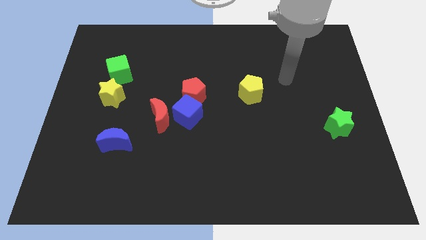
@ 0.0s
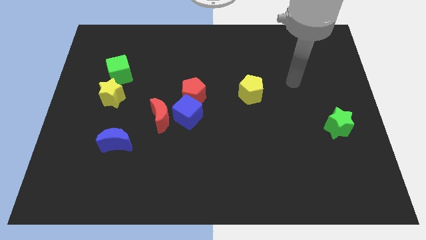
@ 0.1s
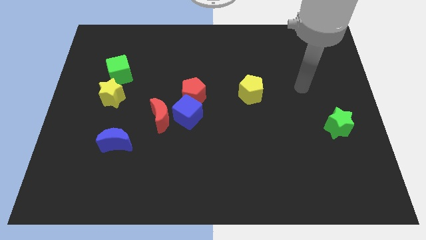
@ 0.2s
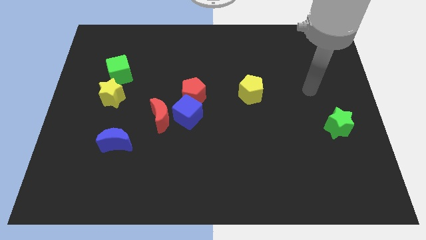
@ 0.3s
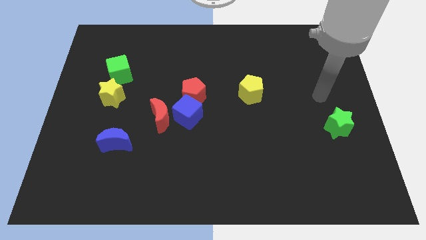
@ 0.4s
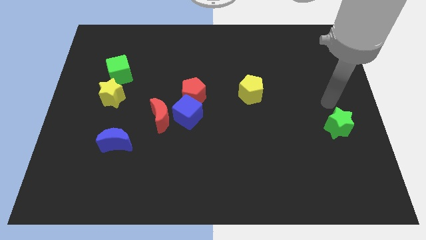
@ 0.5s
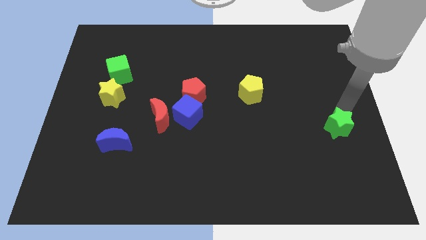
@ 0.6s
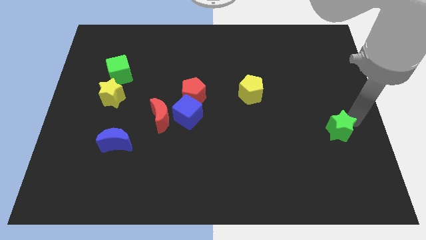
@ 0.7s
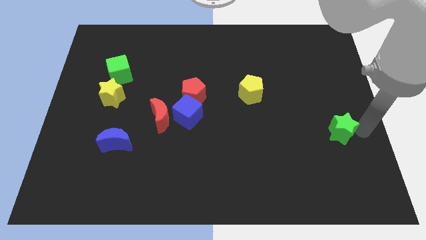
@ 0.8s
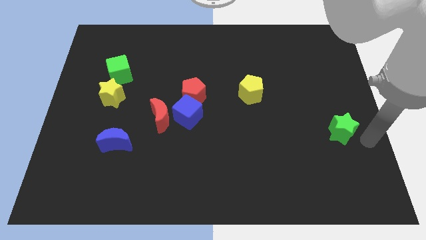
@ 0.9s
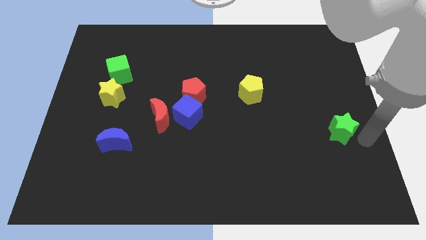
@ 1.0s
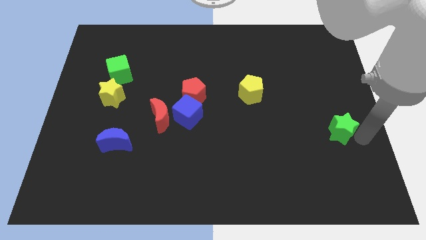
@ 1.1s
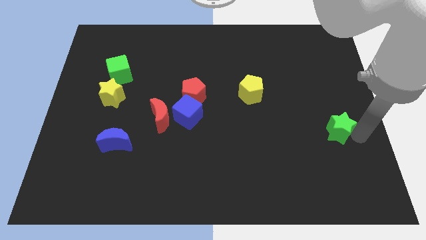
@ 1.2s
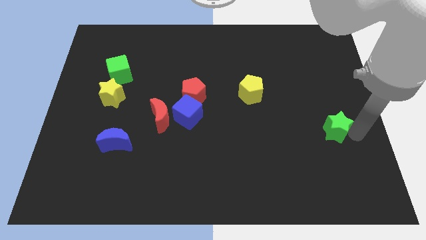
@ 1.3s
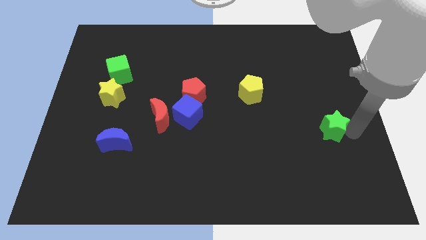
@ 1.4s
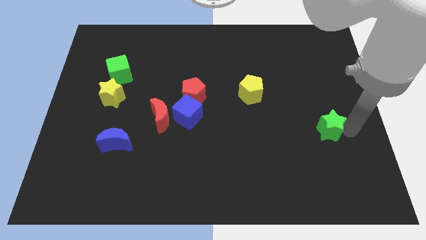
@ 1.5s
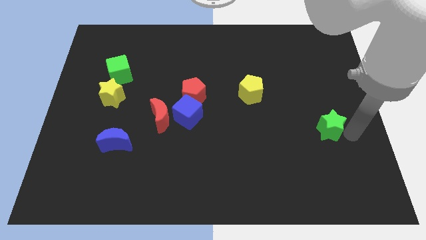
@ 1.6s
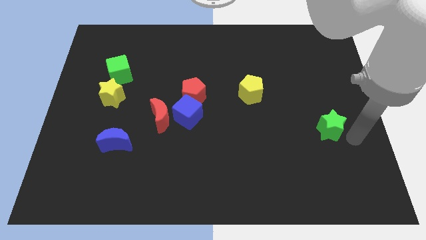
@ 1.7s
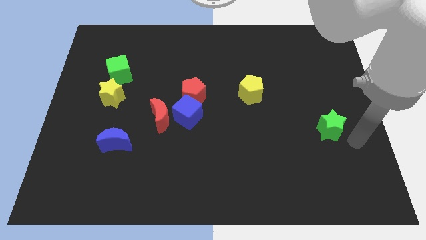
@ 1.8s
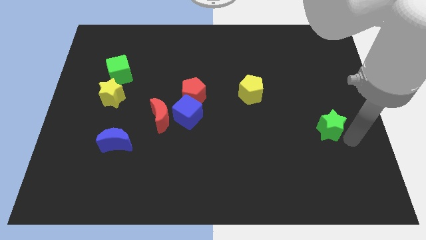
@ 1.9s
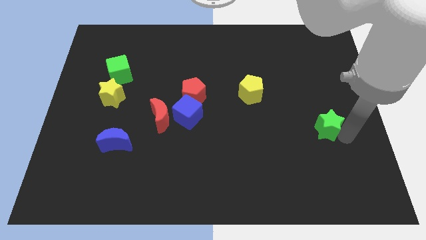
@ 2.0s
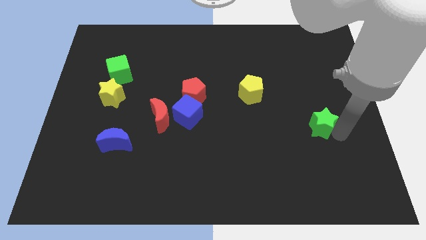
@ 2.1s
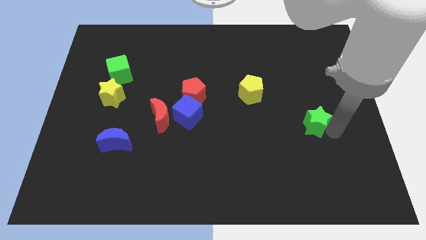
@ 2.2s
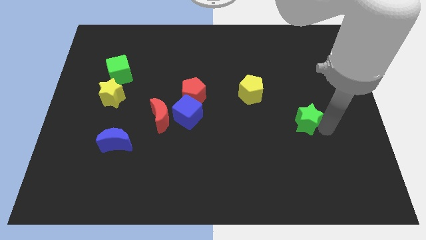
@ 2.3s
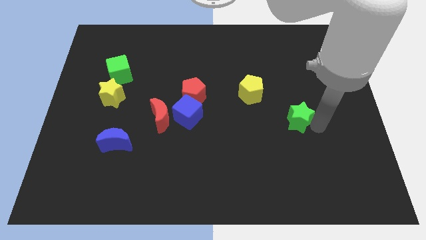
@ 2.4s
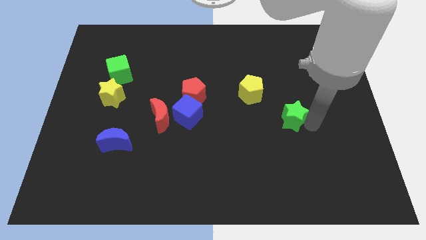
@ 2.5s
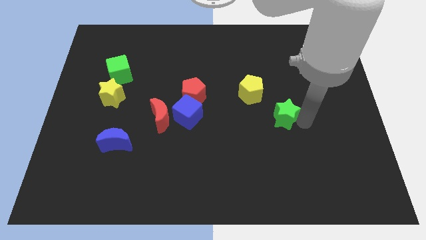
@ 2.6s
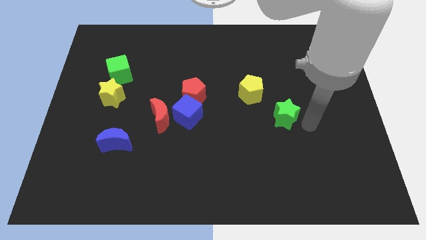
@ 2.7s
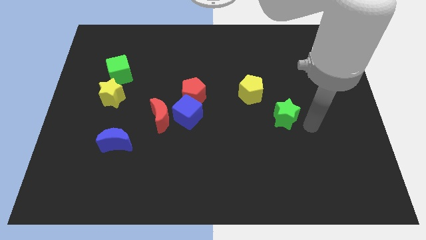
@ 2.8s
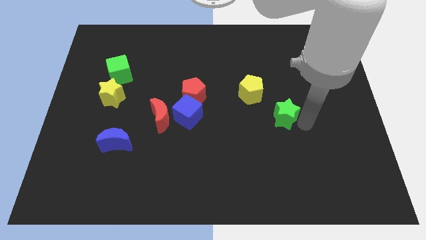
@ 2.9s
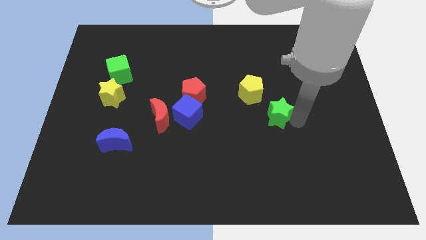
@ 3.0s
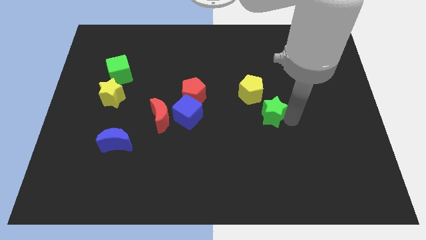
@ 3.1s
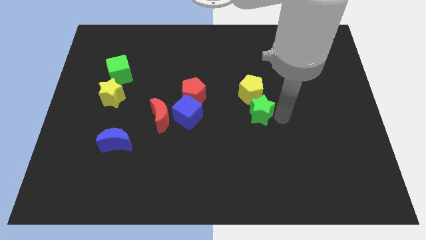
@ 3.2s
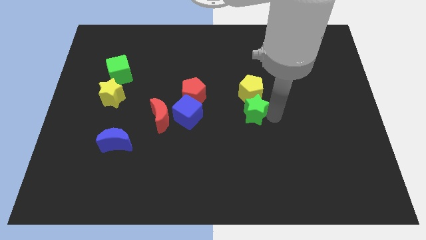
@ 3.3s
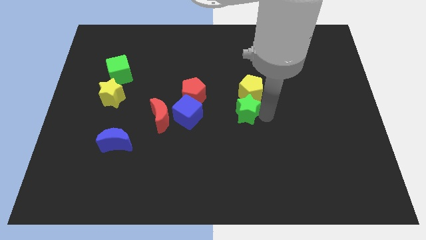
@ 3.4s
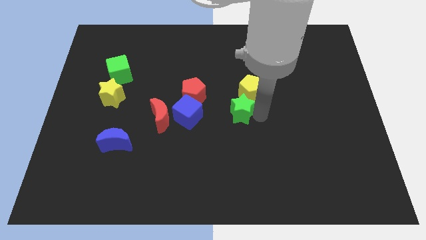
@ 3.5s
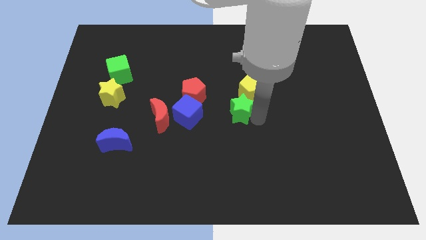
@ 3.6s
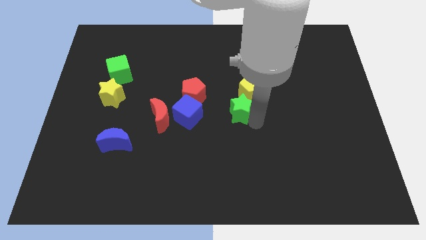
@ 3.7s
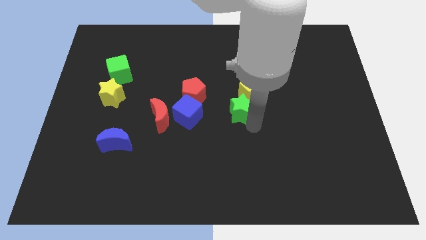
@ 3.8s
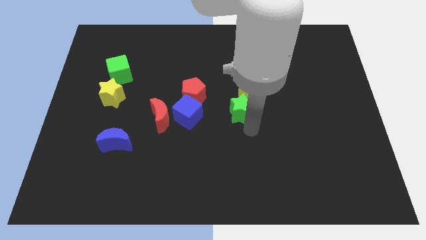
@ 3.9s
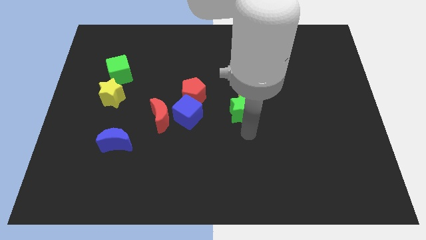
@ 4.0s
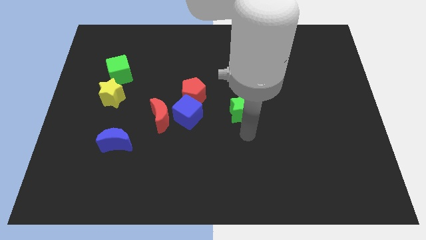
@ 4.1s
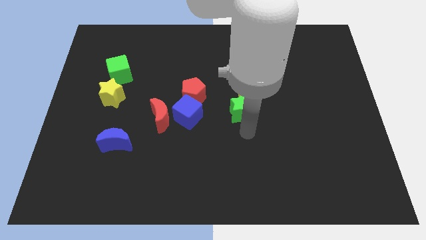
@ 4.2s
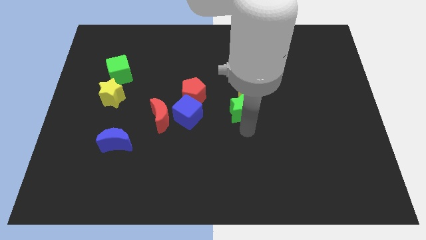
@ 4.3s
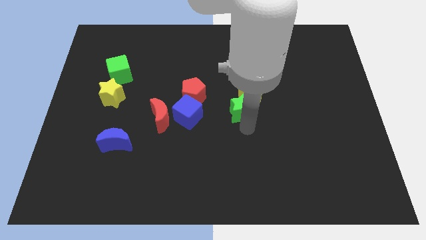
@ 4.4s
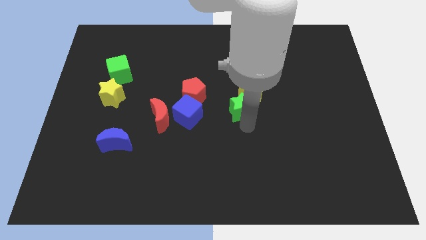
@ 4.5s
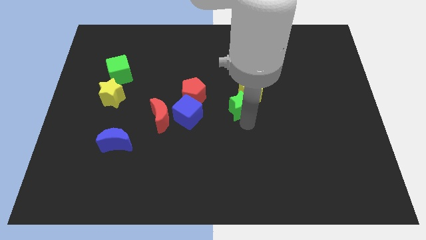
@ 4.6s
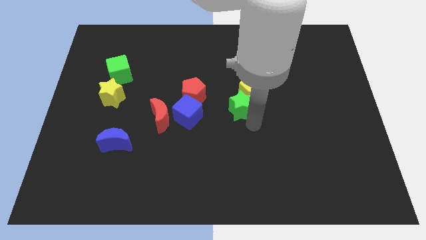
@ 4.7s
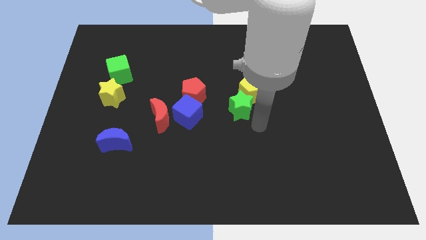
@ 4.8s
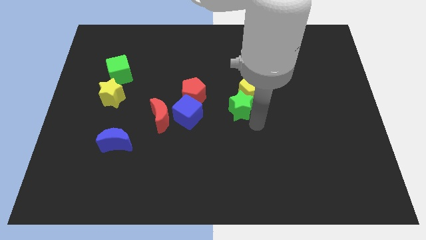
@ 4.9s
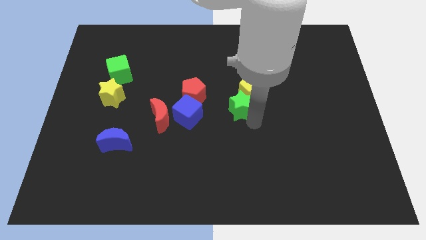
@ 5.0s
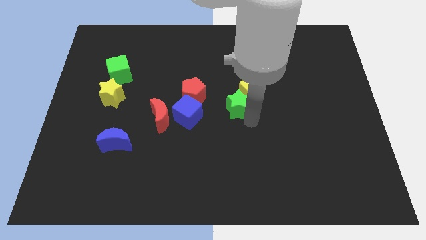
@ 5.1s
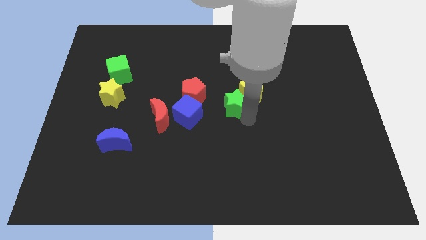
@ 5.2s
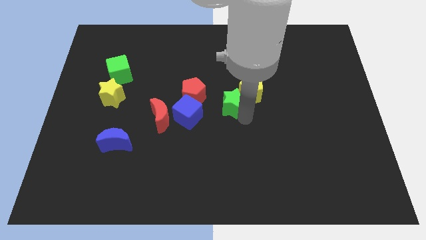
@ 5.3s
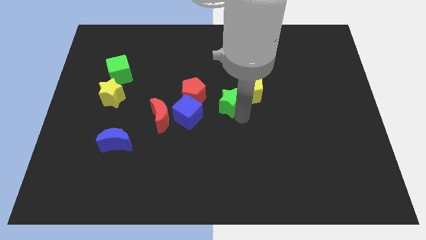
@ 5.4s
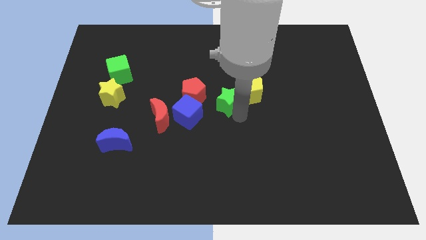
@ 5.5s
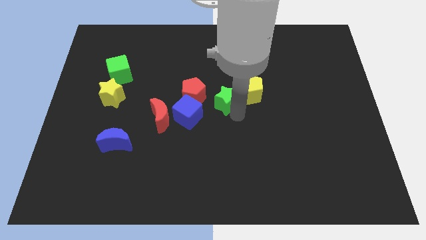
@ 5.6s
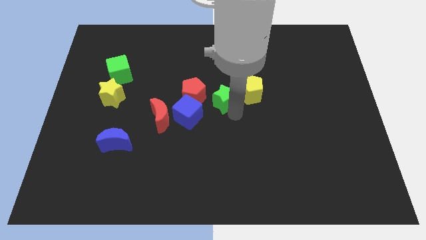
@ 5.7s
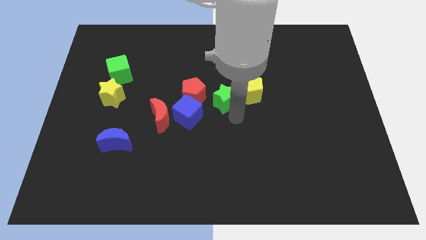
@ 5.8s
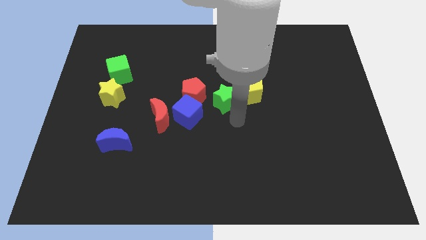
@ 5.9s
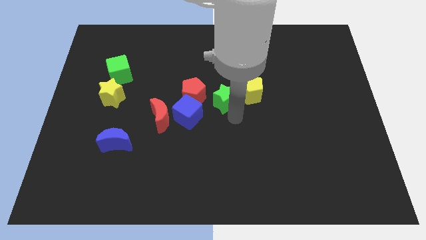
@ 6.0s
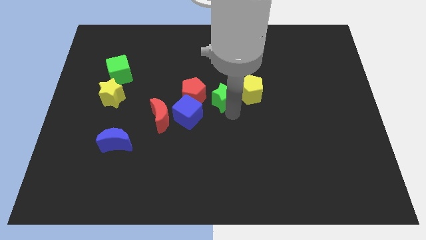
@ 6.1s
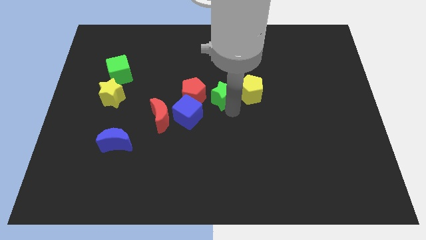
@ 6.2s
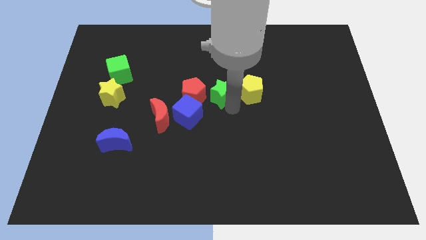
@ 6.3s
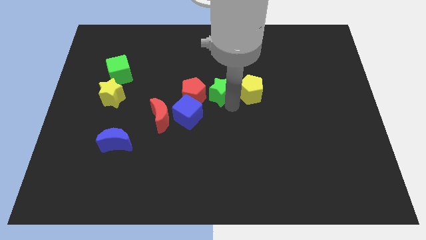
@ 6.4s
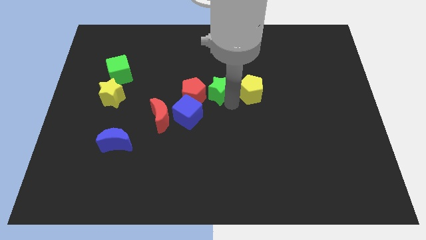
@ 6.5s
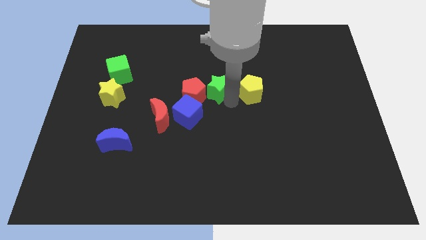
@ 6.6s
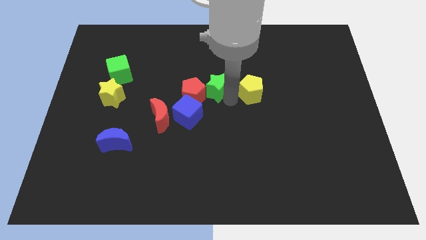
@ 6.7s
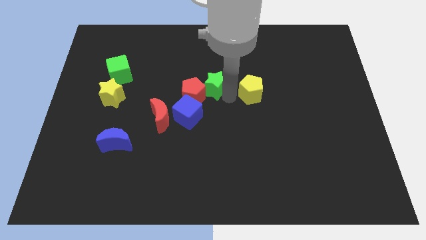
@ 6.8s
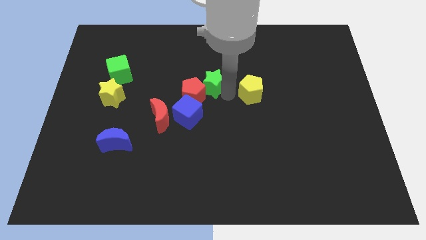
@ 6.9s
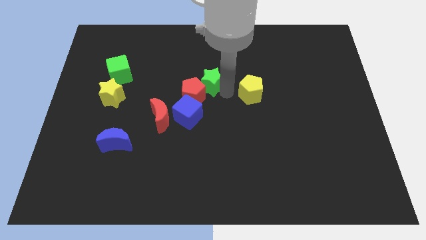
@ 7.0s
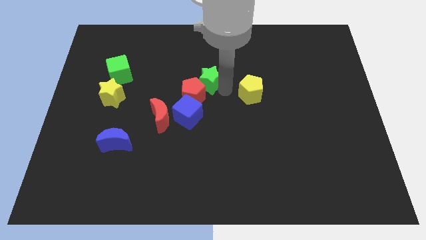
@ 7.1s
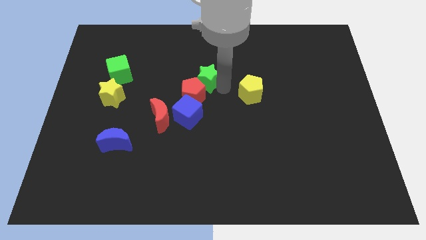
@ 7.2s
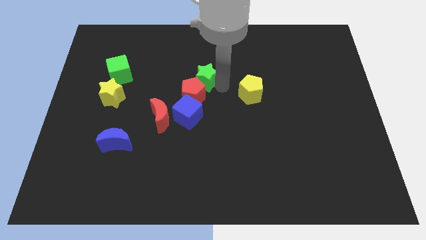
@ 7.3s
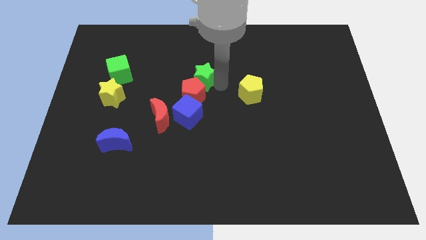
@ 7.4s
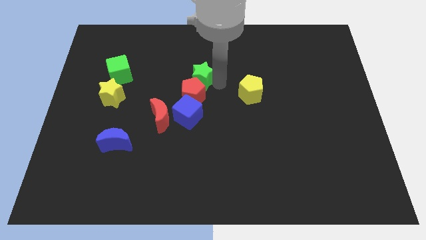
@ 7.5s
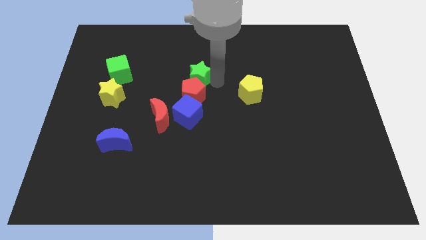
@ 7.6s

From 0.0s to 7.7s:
slide the green star to the top left of the red pentagon

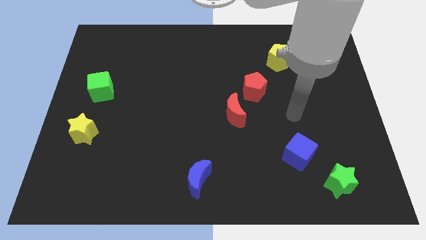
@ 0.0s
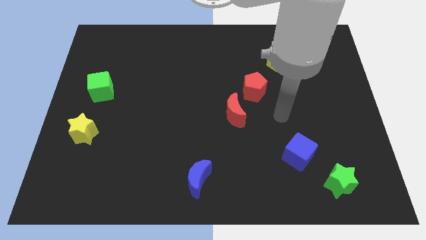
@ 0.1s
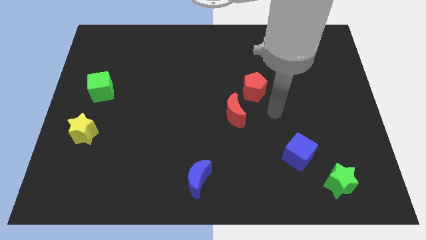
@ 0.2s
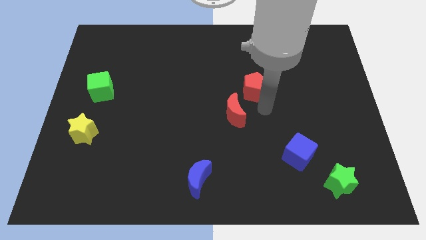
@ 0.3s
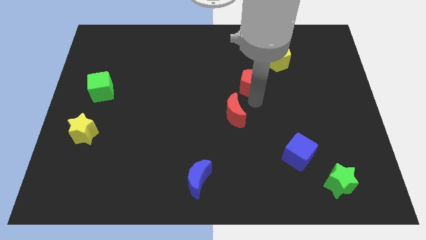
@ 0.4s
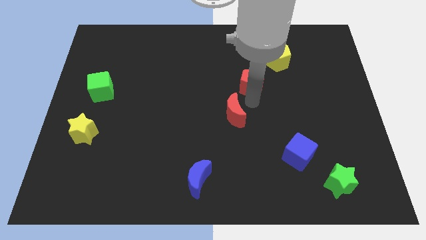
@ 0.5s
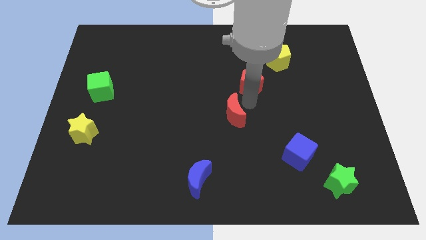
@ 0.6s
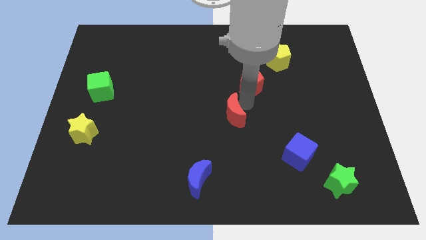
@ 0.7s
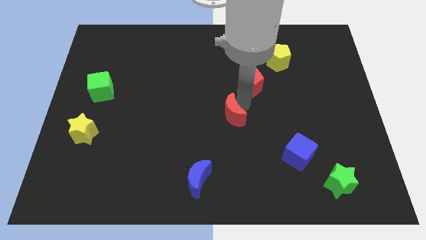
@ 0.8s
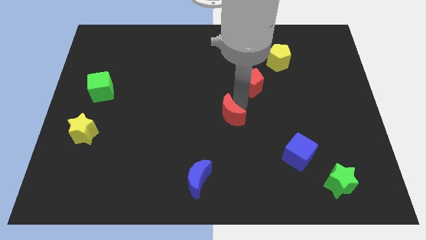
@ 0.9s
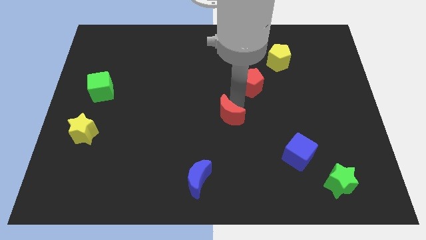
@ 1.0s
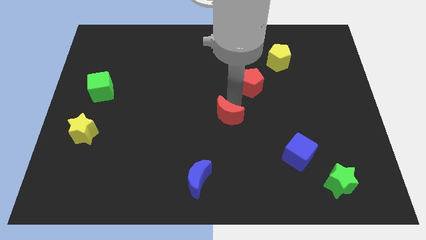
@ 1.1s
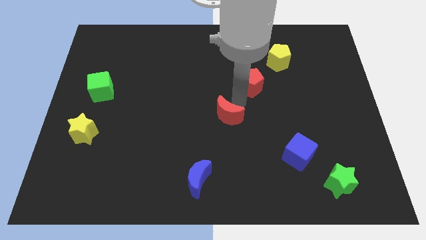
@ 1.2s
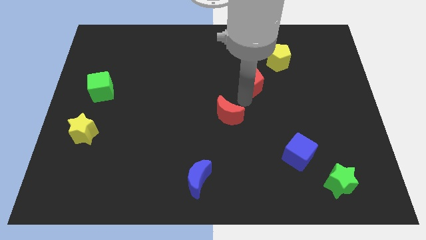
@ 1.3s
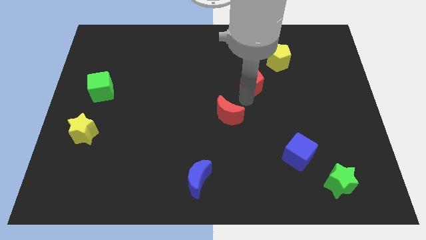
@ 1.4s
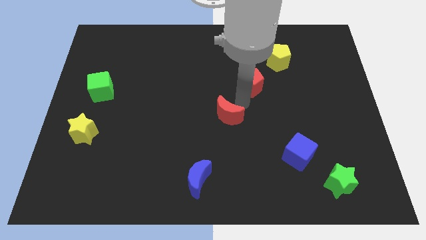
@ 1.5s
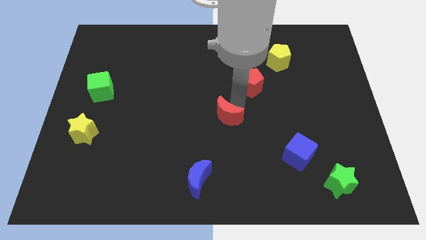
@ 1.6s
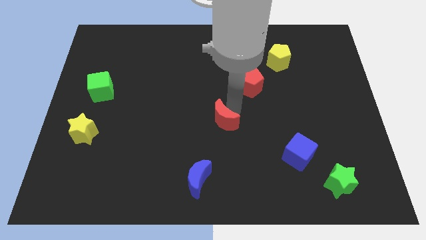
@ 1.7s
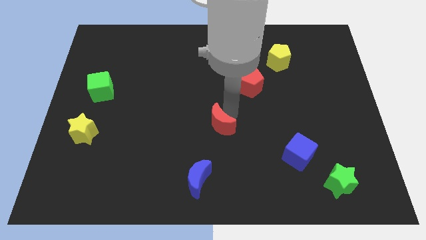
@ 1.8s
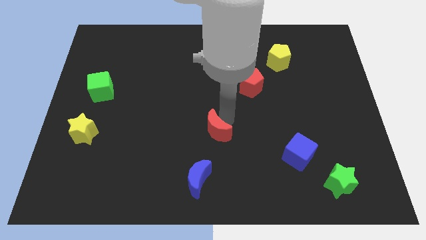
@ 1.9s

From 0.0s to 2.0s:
move the red moon to the top of the blue moon
